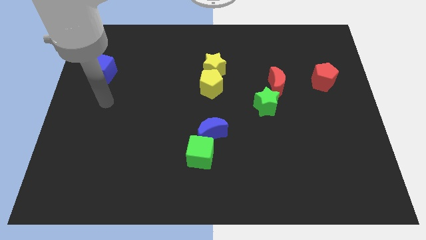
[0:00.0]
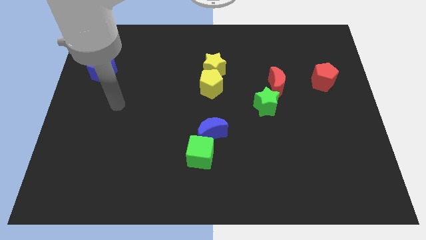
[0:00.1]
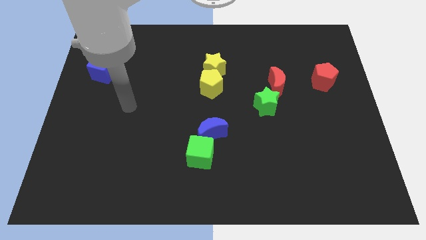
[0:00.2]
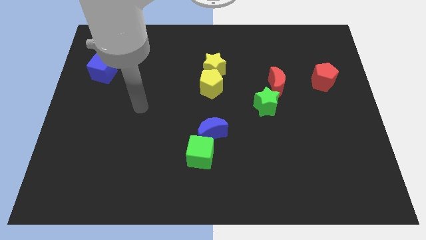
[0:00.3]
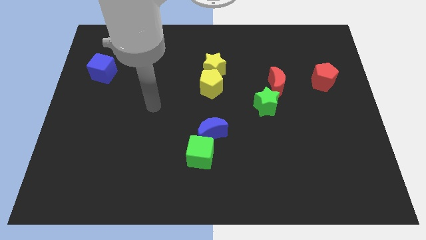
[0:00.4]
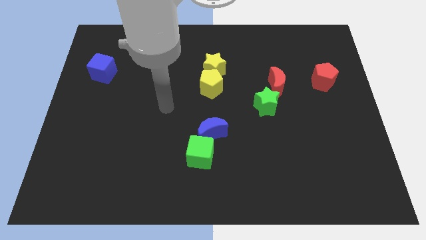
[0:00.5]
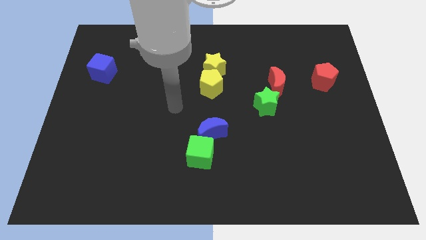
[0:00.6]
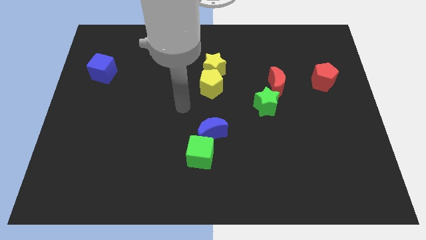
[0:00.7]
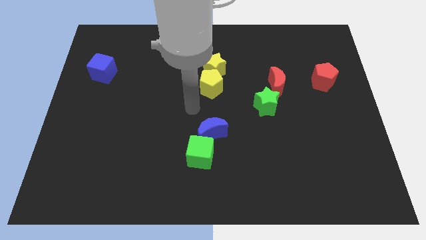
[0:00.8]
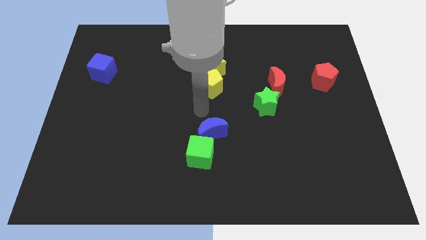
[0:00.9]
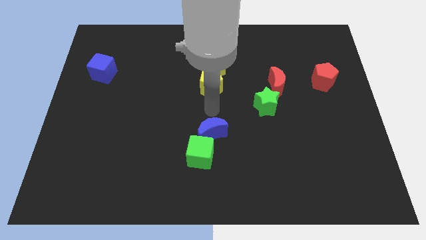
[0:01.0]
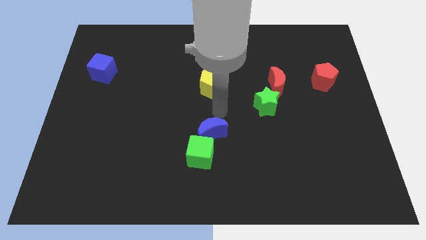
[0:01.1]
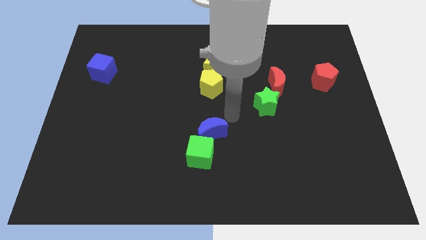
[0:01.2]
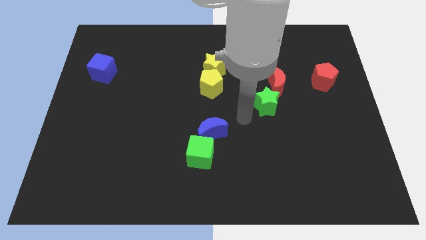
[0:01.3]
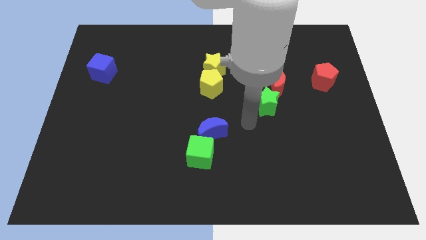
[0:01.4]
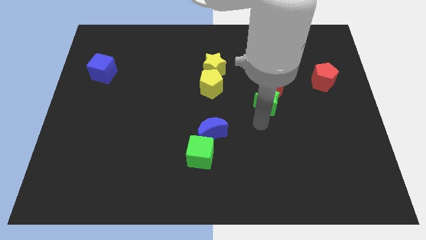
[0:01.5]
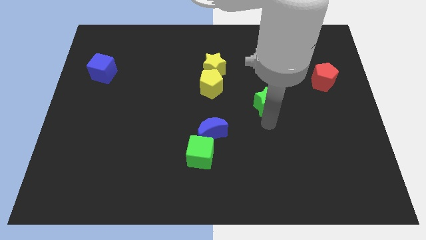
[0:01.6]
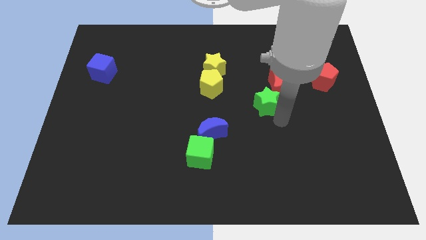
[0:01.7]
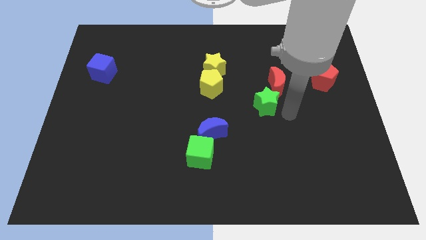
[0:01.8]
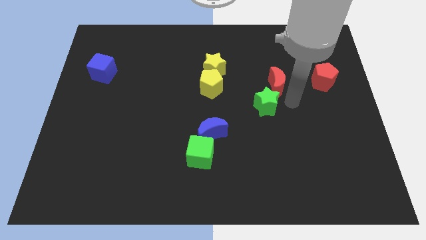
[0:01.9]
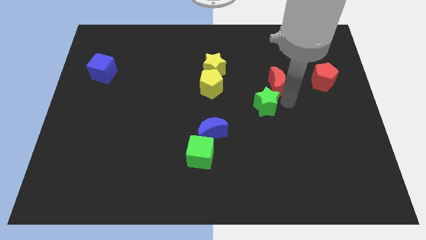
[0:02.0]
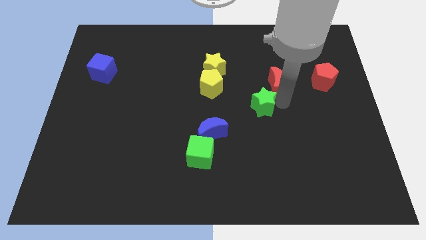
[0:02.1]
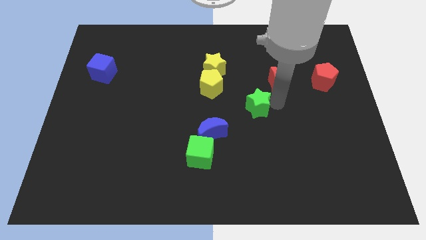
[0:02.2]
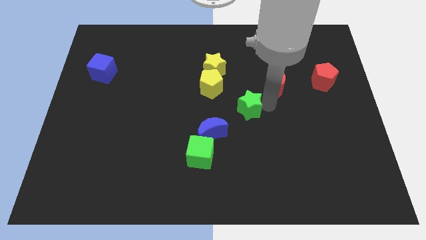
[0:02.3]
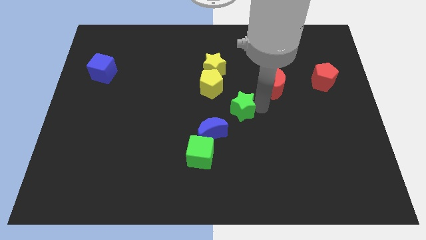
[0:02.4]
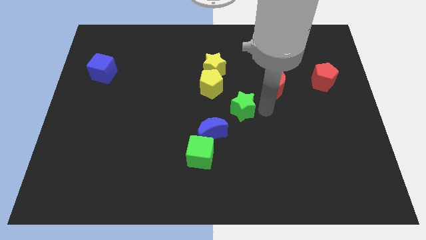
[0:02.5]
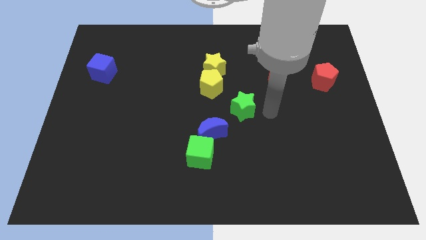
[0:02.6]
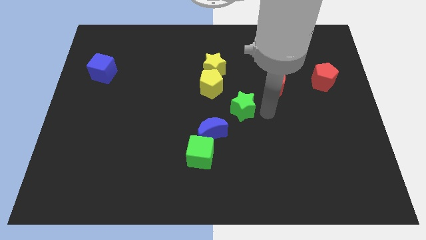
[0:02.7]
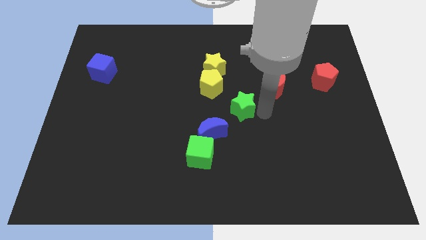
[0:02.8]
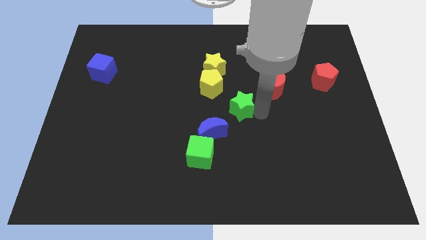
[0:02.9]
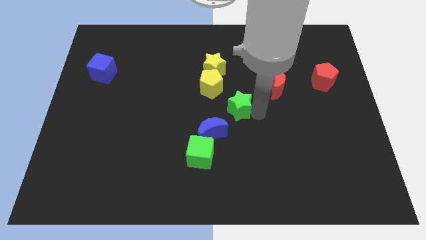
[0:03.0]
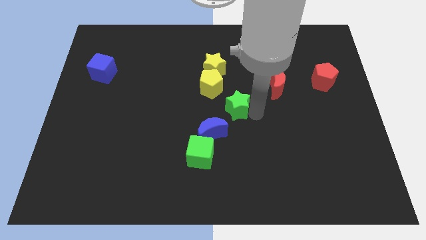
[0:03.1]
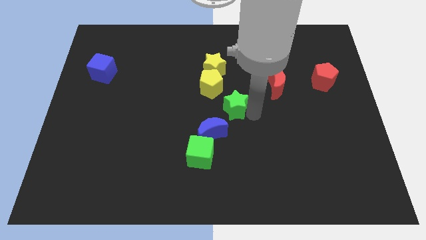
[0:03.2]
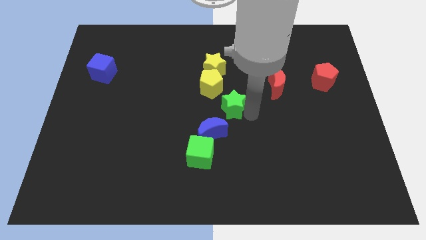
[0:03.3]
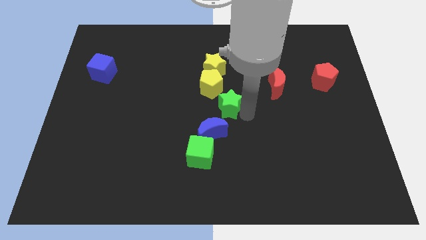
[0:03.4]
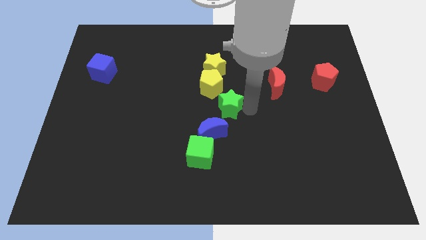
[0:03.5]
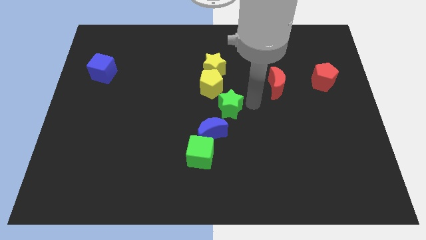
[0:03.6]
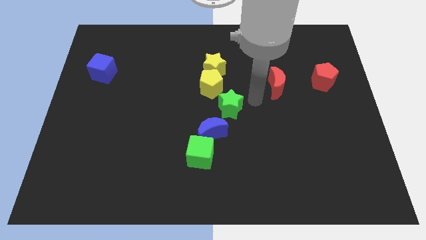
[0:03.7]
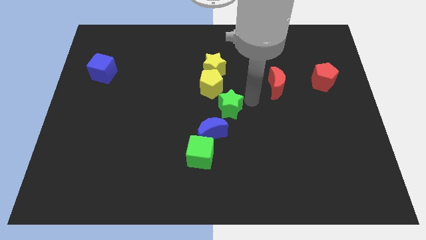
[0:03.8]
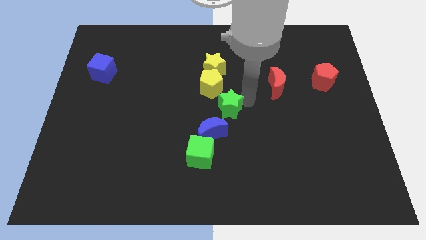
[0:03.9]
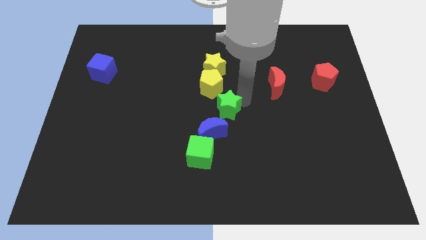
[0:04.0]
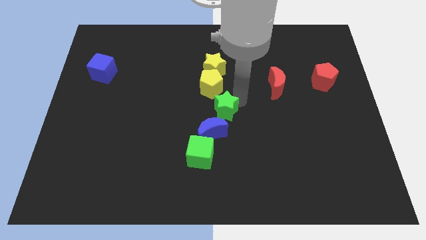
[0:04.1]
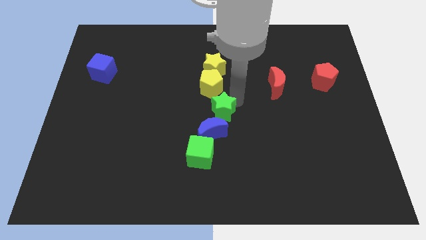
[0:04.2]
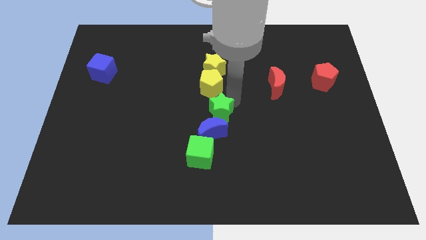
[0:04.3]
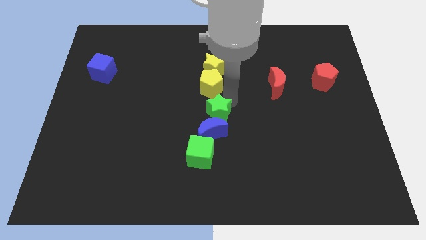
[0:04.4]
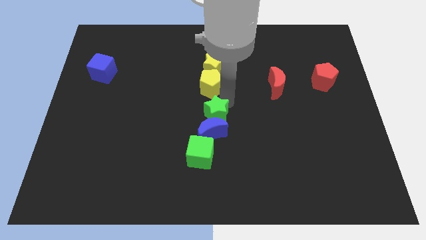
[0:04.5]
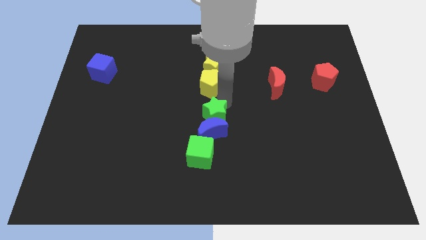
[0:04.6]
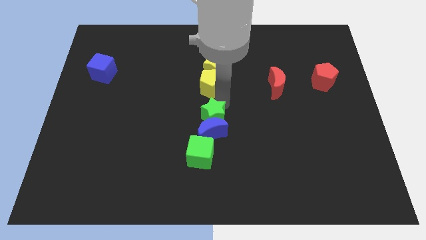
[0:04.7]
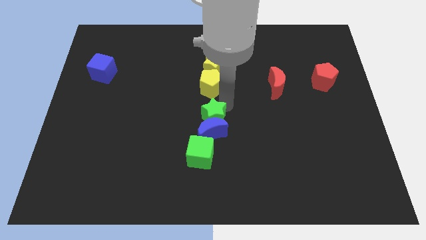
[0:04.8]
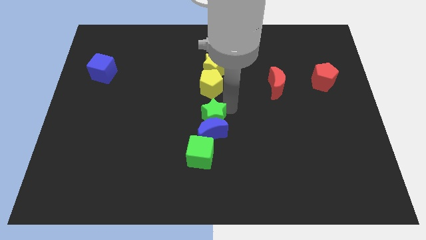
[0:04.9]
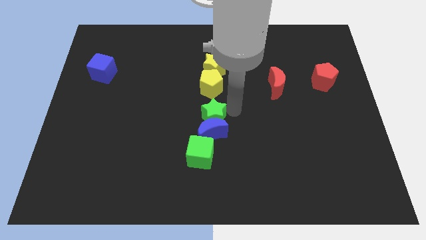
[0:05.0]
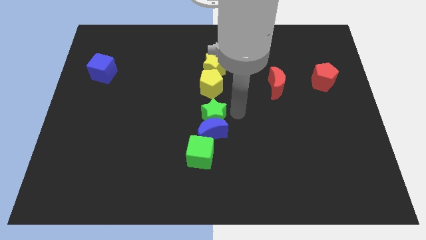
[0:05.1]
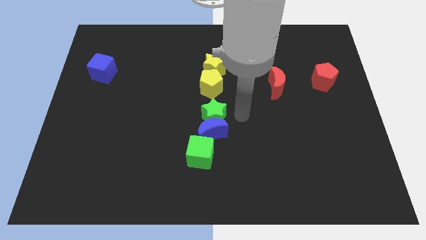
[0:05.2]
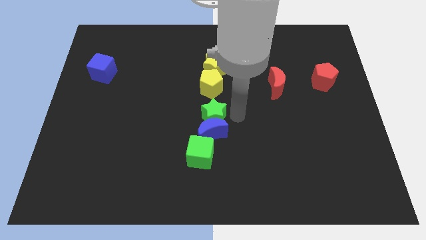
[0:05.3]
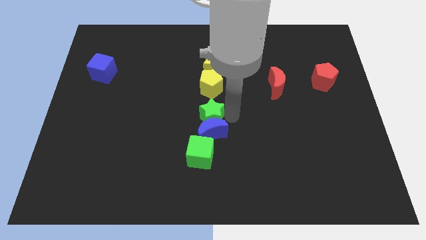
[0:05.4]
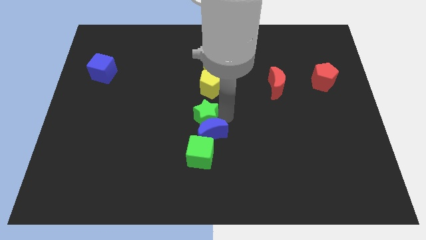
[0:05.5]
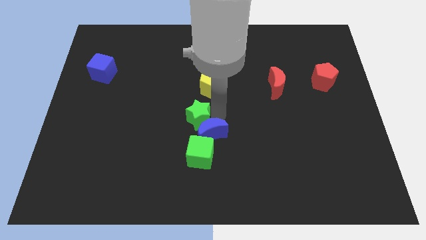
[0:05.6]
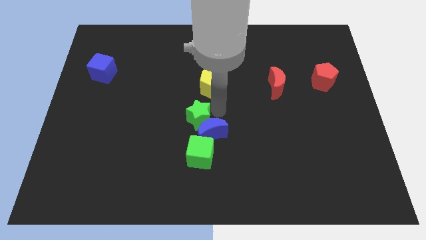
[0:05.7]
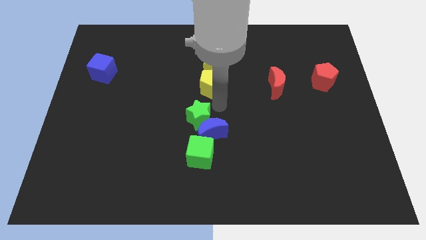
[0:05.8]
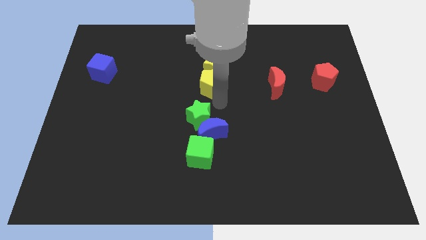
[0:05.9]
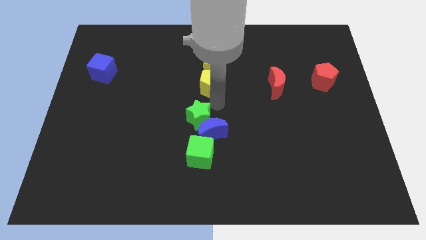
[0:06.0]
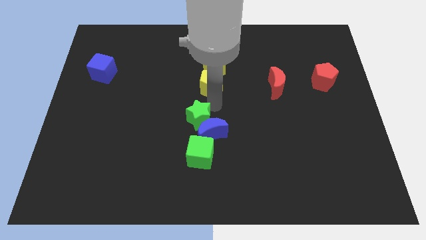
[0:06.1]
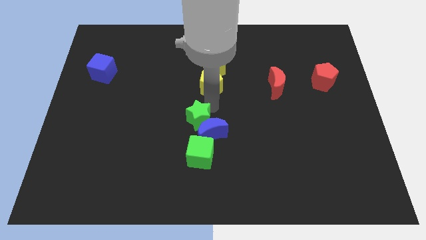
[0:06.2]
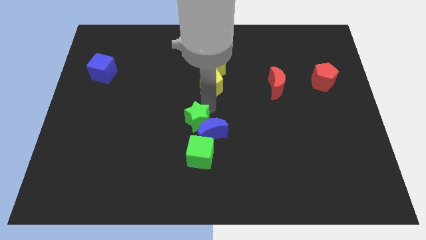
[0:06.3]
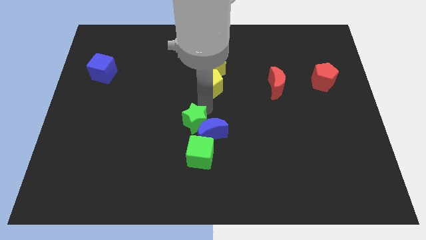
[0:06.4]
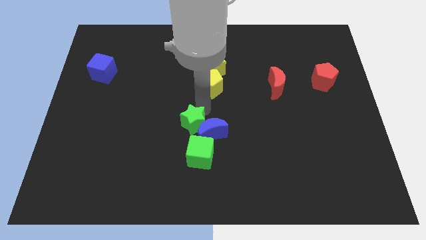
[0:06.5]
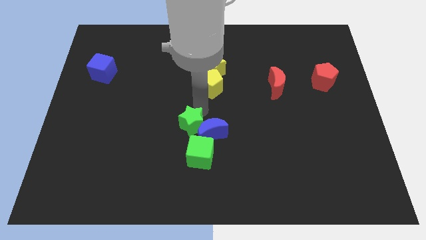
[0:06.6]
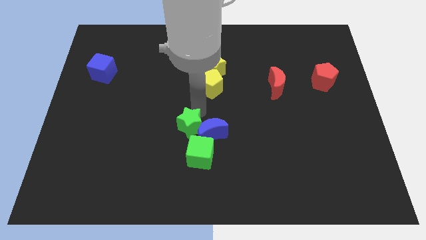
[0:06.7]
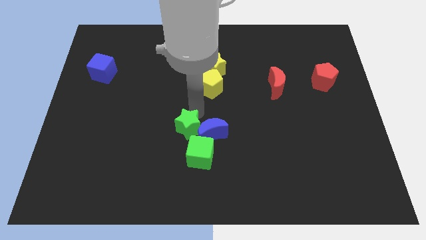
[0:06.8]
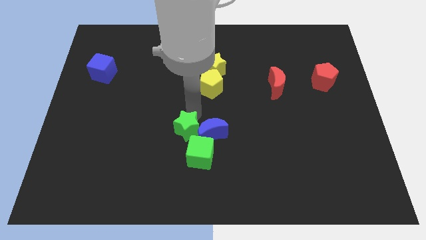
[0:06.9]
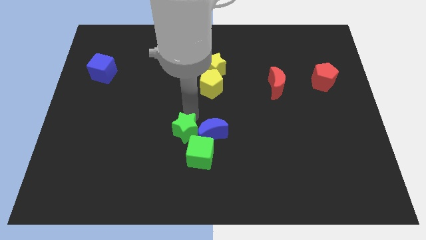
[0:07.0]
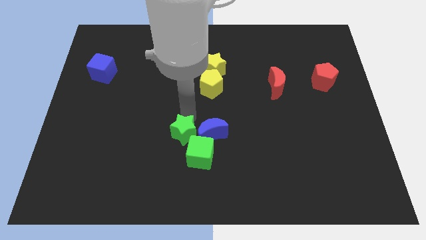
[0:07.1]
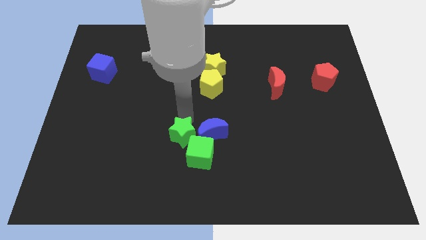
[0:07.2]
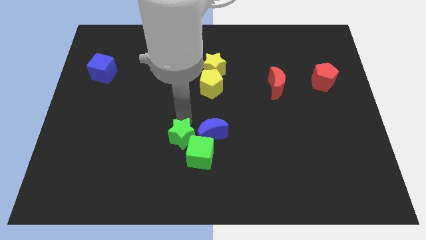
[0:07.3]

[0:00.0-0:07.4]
put the green star left of the green cube
